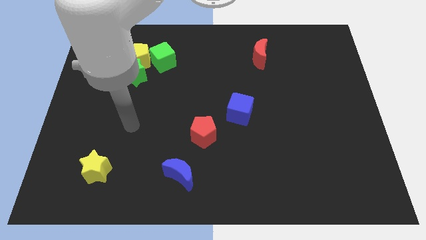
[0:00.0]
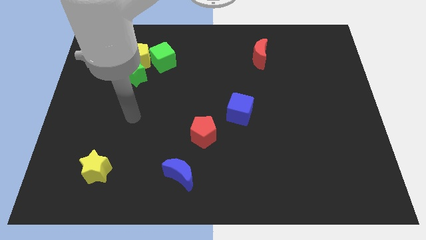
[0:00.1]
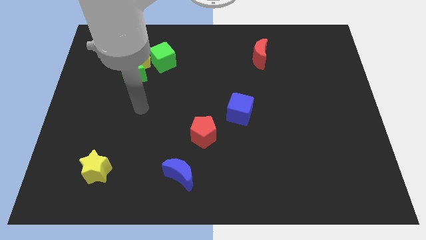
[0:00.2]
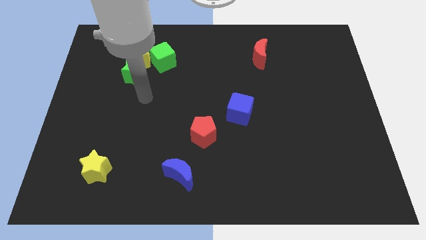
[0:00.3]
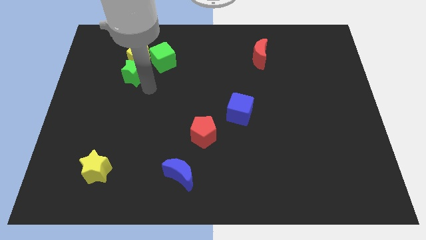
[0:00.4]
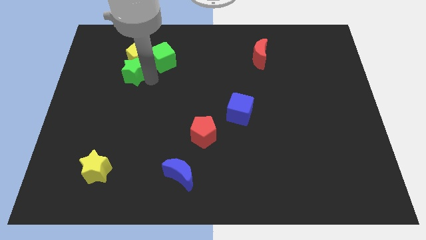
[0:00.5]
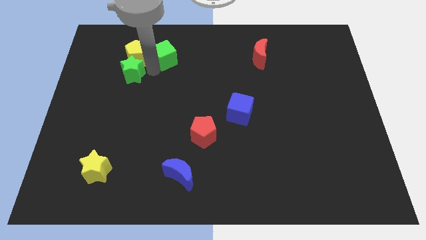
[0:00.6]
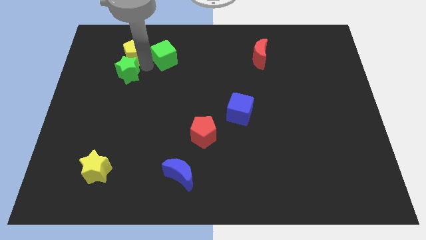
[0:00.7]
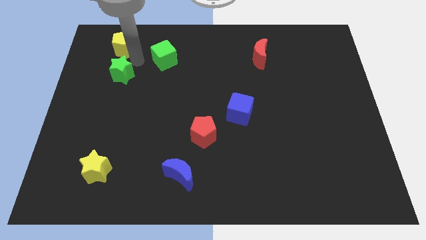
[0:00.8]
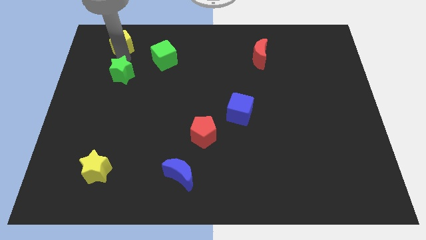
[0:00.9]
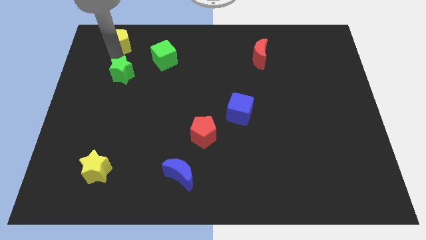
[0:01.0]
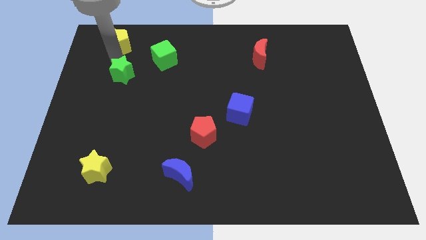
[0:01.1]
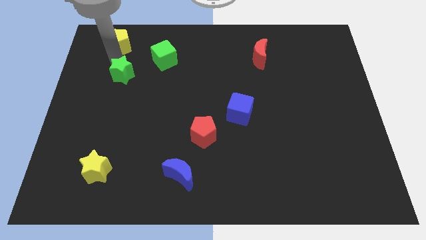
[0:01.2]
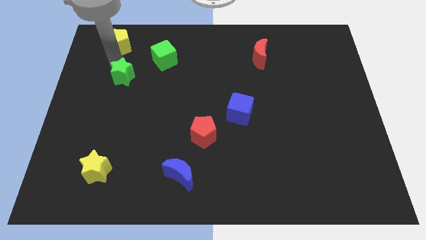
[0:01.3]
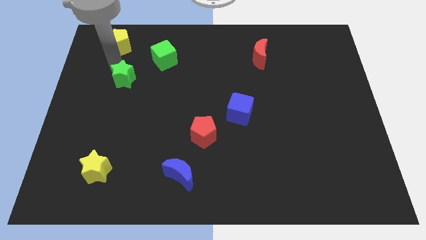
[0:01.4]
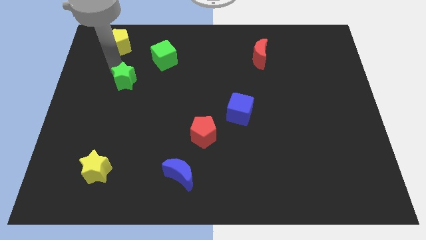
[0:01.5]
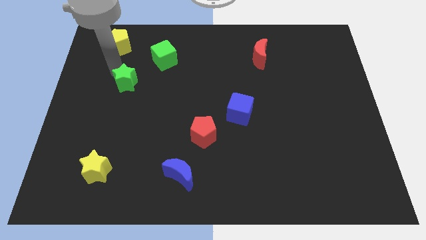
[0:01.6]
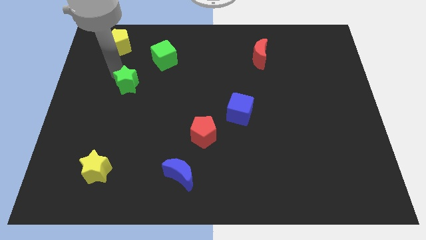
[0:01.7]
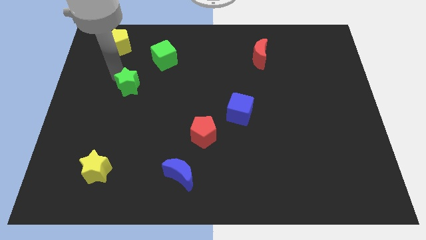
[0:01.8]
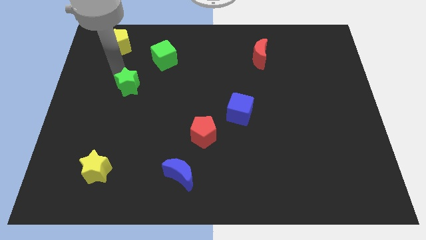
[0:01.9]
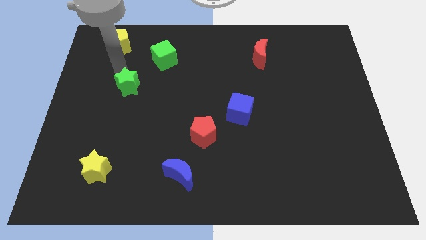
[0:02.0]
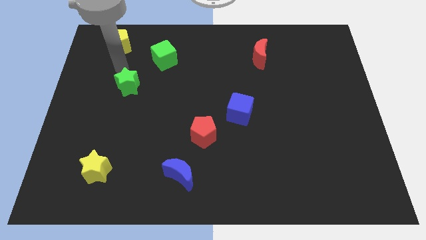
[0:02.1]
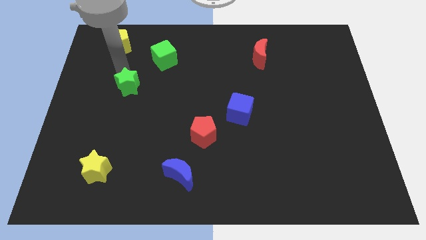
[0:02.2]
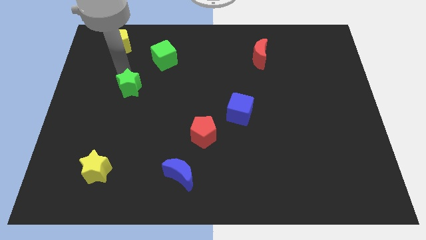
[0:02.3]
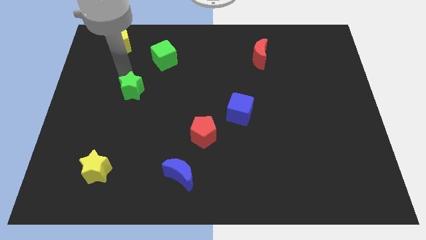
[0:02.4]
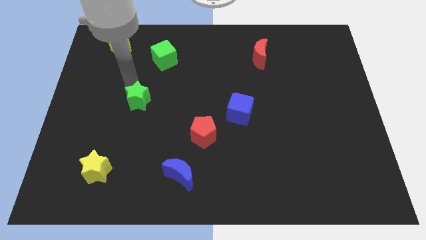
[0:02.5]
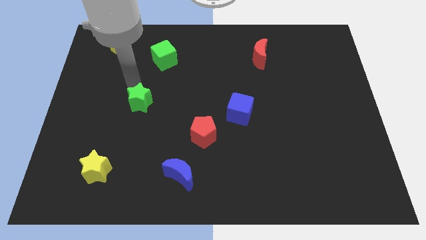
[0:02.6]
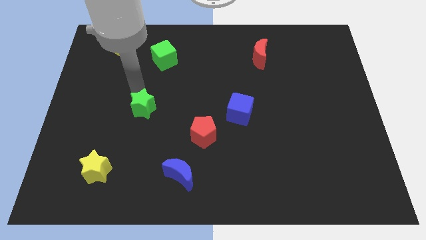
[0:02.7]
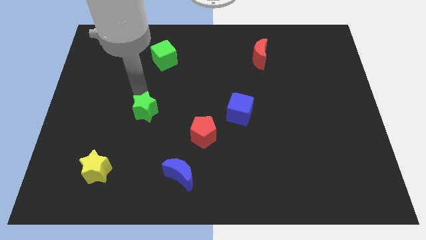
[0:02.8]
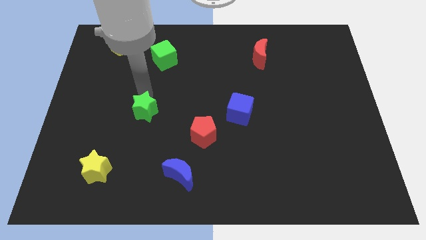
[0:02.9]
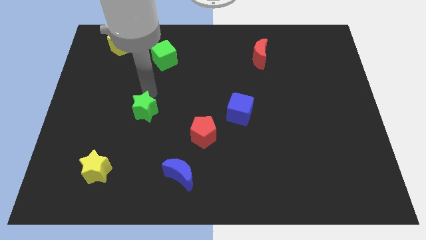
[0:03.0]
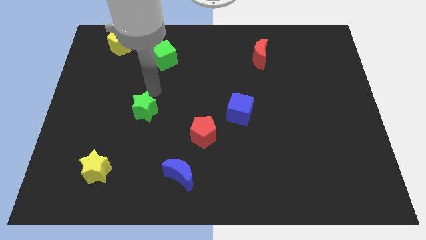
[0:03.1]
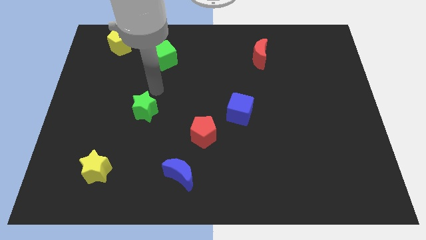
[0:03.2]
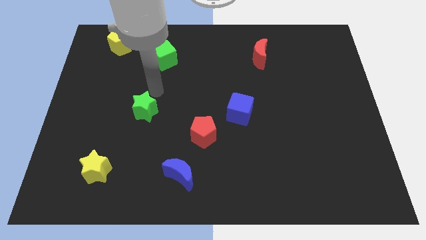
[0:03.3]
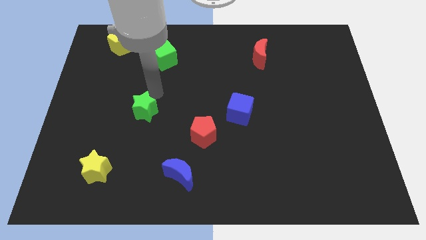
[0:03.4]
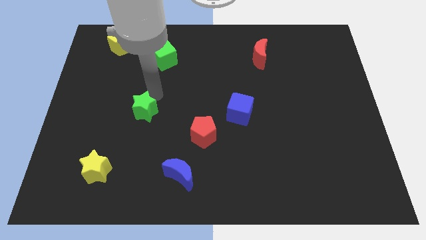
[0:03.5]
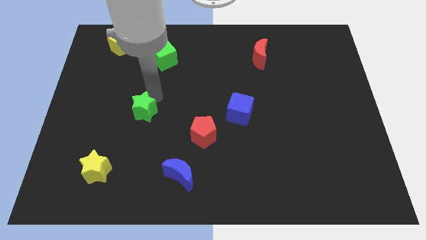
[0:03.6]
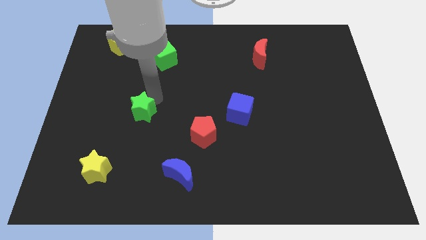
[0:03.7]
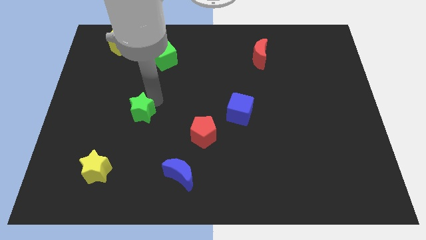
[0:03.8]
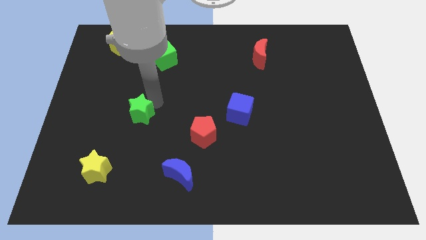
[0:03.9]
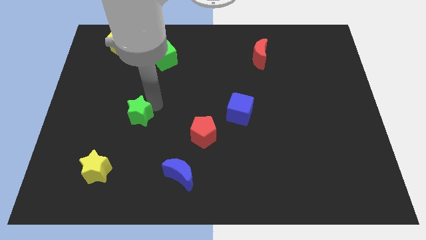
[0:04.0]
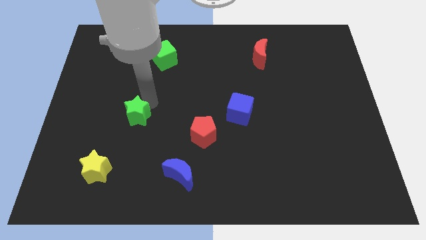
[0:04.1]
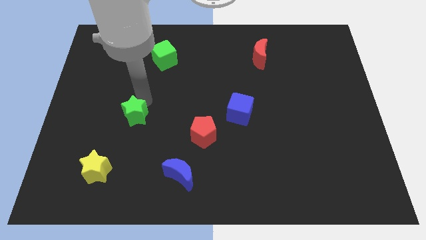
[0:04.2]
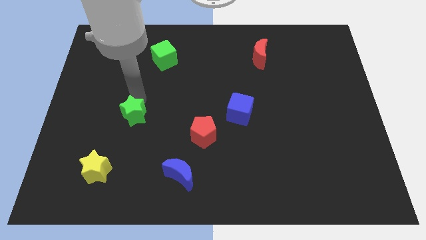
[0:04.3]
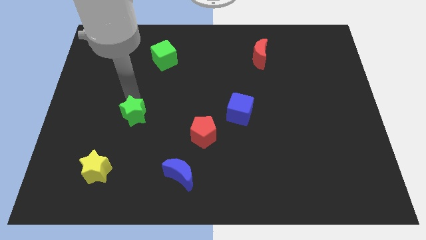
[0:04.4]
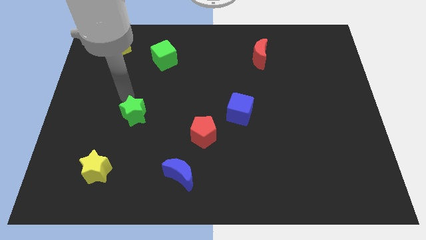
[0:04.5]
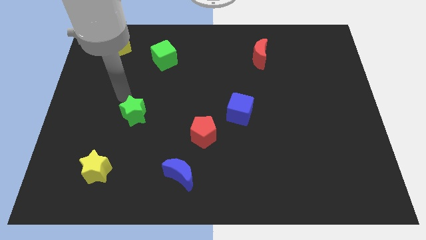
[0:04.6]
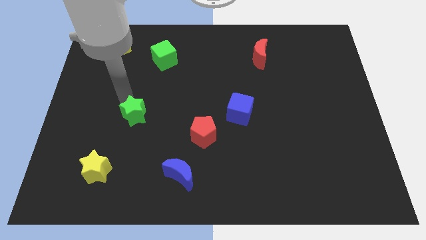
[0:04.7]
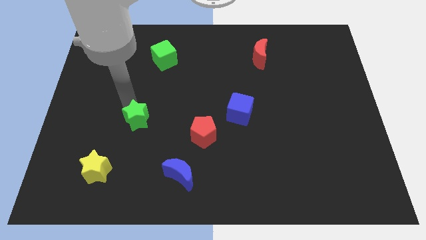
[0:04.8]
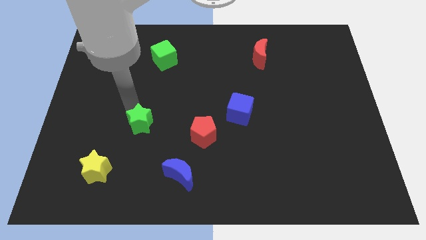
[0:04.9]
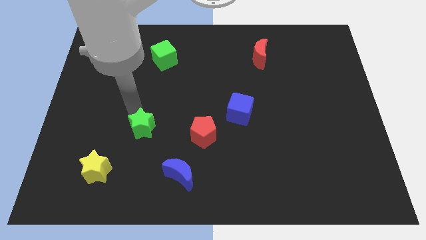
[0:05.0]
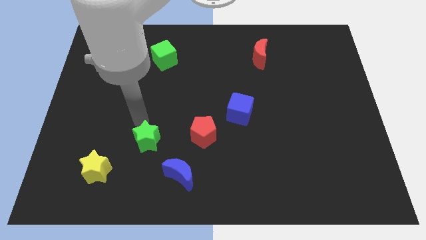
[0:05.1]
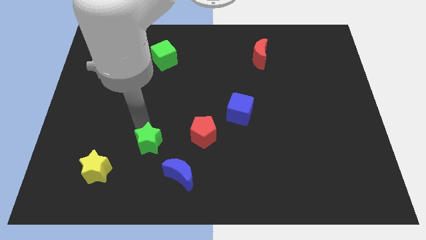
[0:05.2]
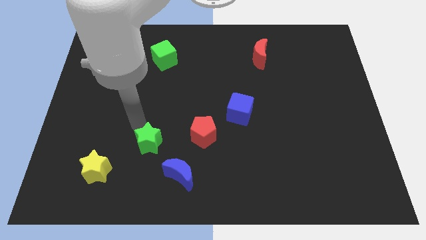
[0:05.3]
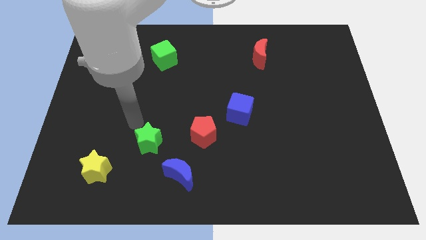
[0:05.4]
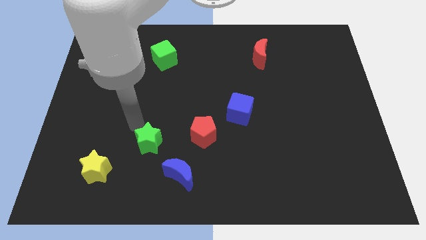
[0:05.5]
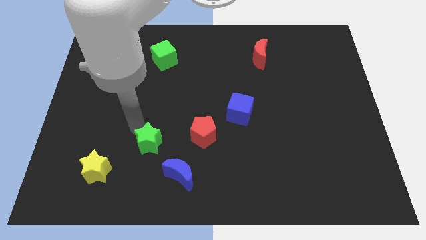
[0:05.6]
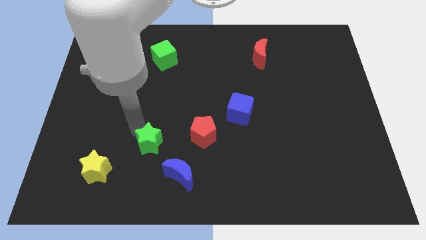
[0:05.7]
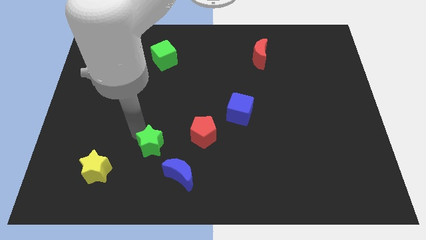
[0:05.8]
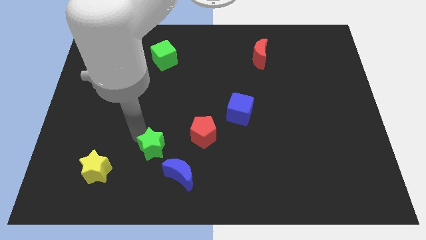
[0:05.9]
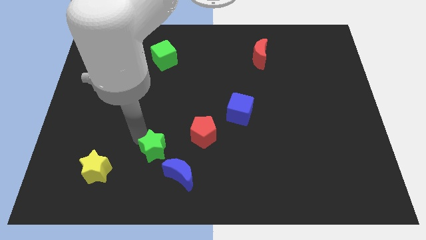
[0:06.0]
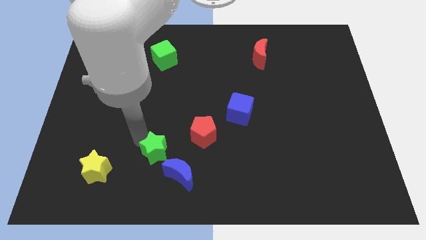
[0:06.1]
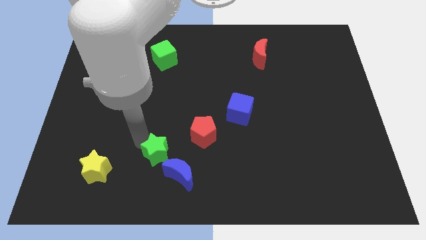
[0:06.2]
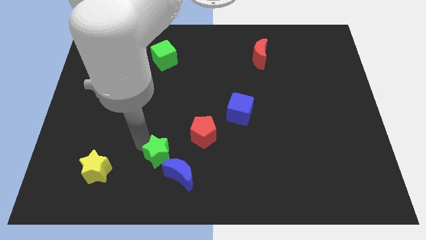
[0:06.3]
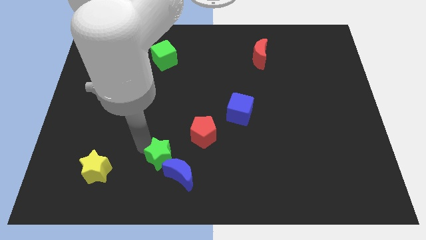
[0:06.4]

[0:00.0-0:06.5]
move the green star towards the blue moon

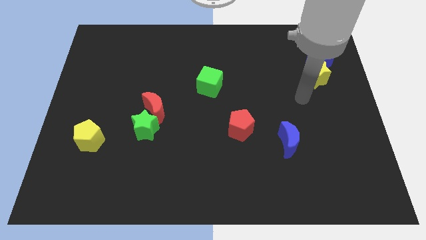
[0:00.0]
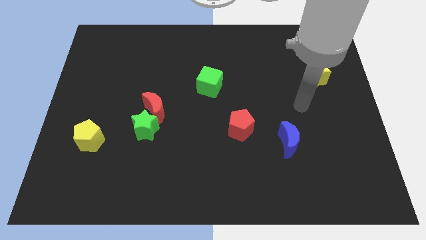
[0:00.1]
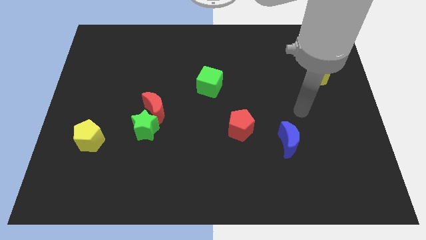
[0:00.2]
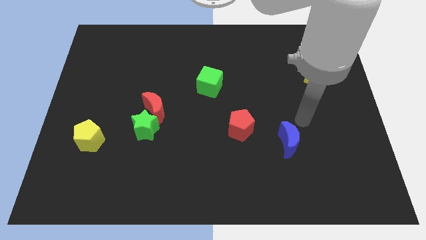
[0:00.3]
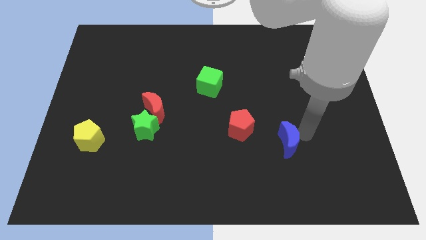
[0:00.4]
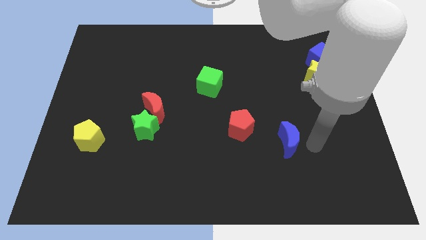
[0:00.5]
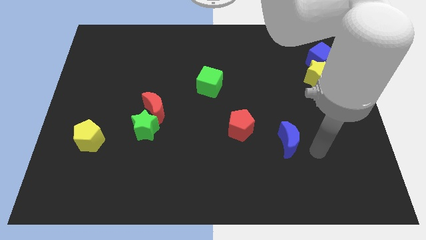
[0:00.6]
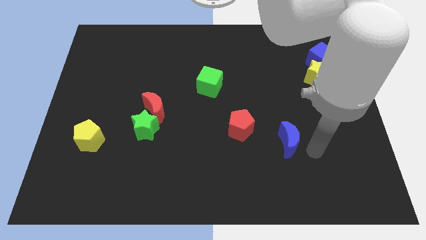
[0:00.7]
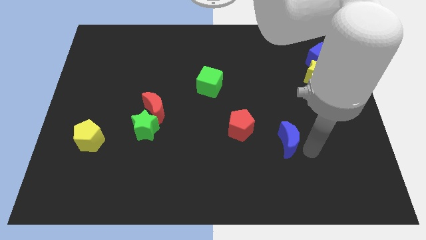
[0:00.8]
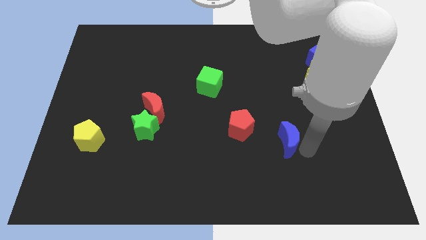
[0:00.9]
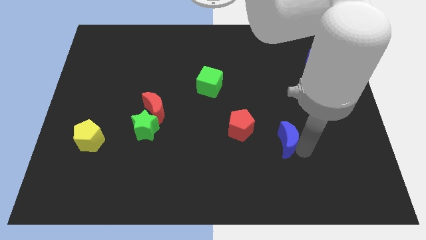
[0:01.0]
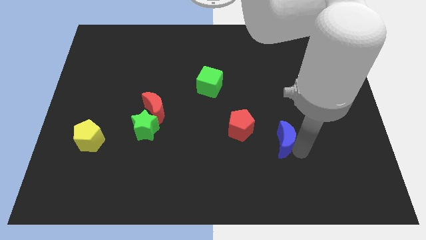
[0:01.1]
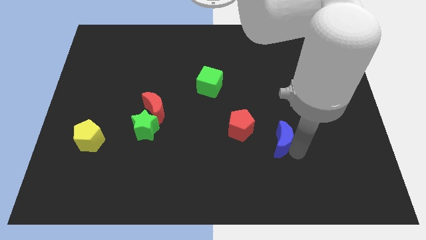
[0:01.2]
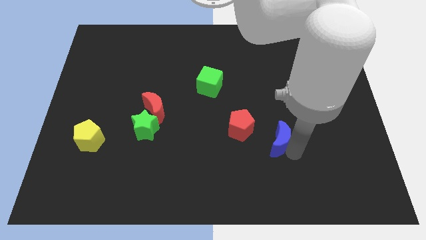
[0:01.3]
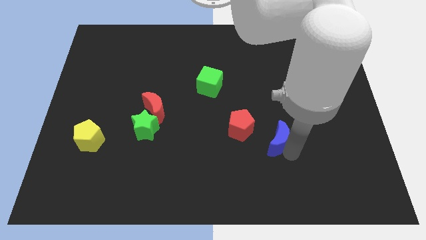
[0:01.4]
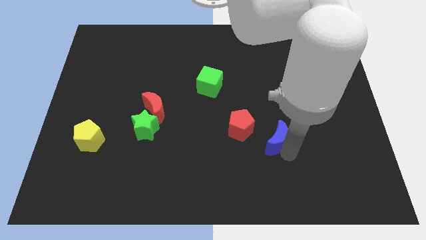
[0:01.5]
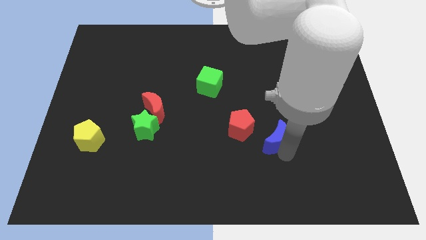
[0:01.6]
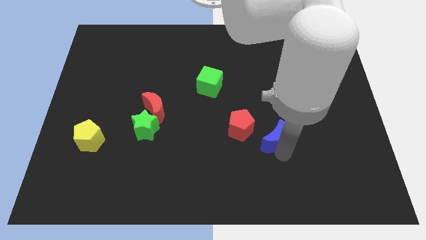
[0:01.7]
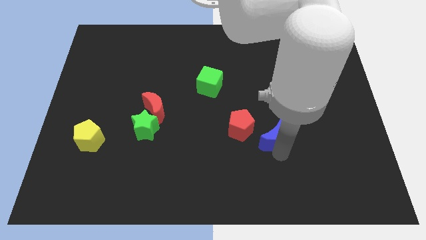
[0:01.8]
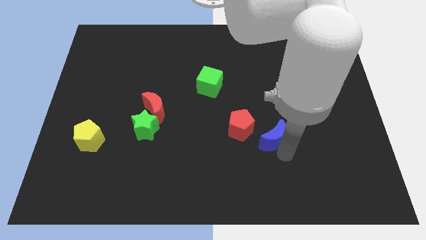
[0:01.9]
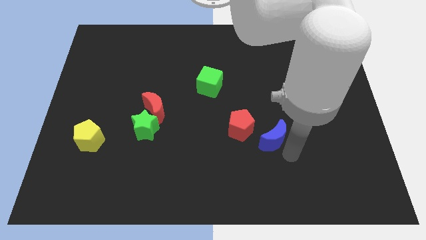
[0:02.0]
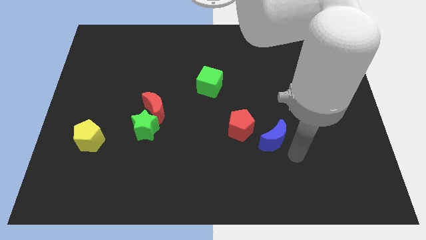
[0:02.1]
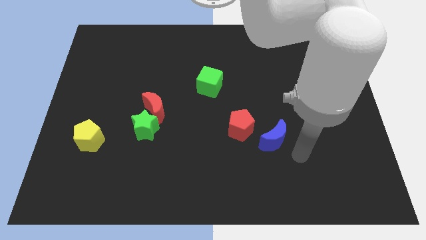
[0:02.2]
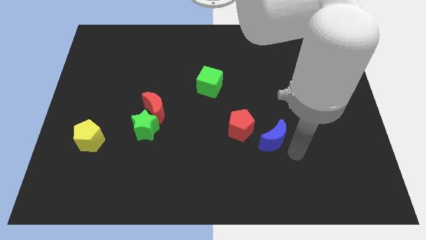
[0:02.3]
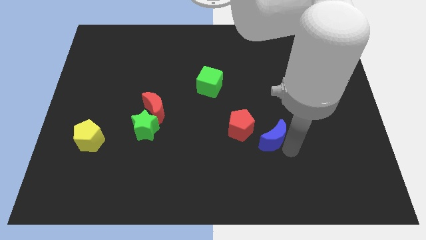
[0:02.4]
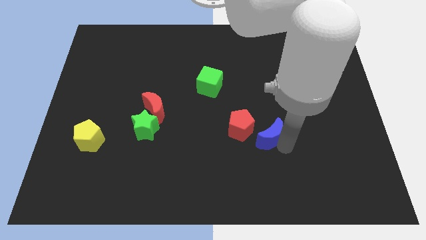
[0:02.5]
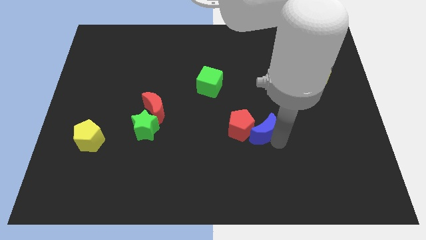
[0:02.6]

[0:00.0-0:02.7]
slide the blue moon close to the red pentagon
